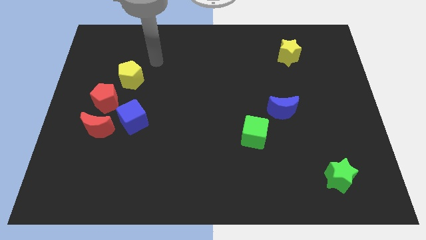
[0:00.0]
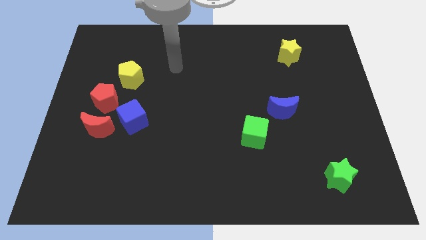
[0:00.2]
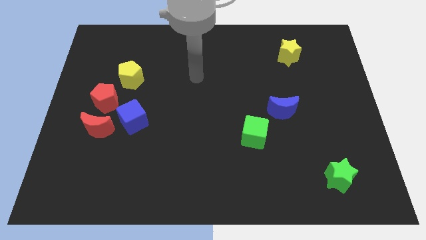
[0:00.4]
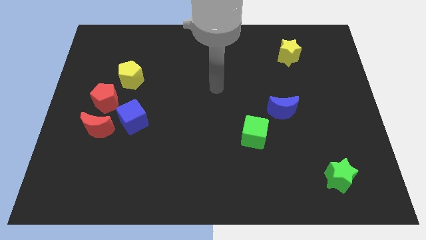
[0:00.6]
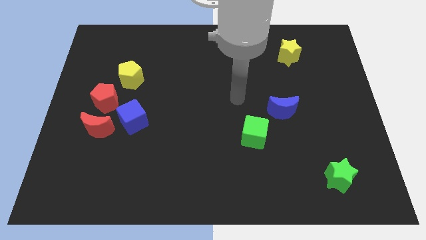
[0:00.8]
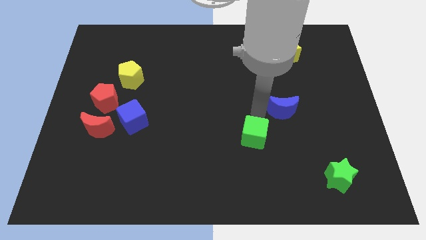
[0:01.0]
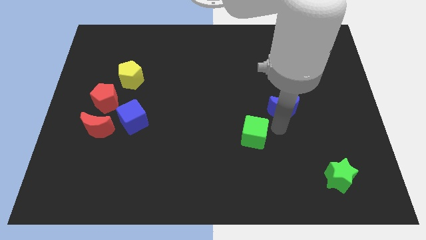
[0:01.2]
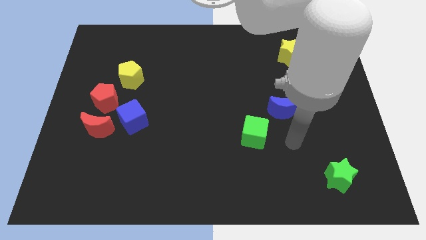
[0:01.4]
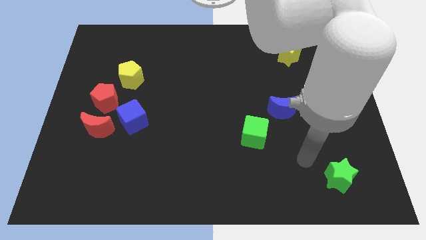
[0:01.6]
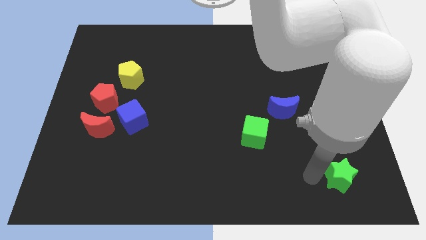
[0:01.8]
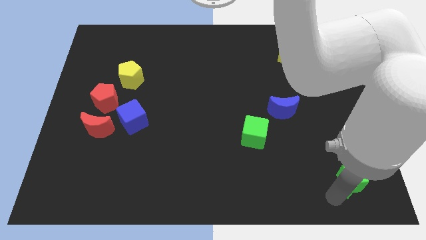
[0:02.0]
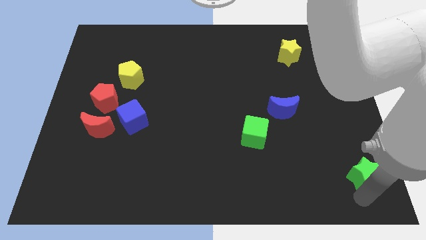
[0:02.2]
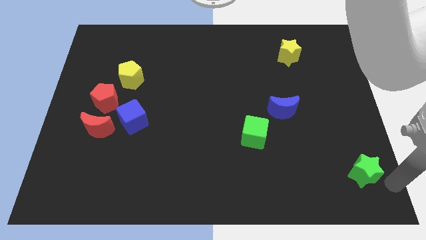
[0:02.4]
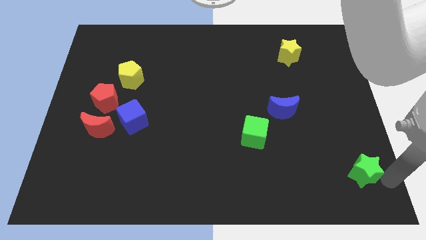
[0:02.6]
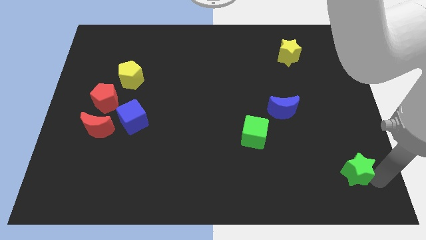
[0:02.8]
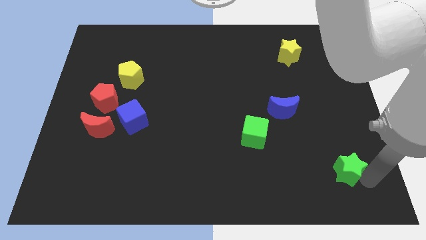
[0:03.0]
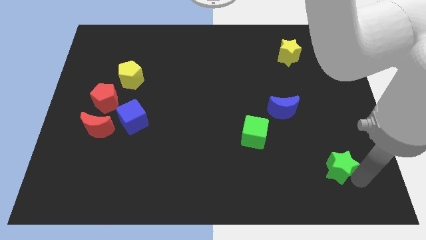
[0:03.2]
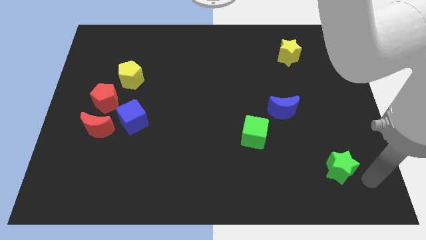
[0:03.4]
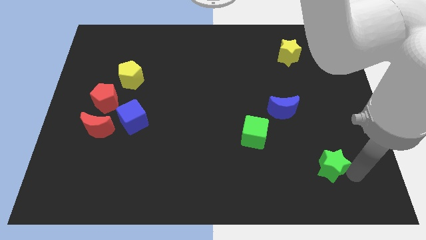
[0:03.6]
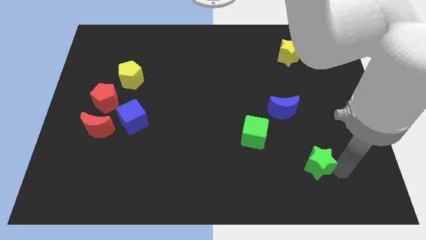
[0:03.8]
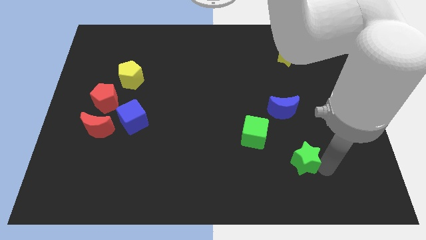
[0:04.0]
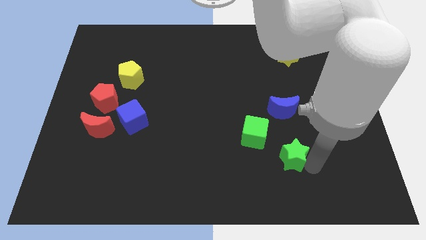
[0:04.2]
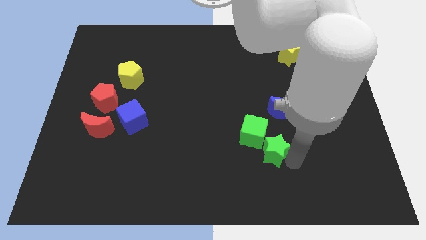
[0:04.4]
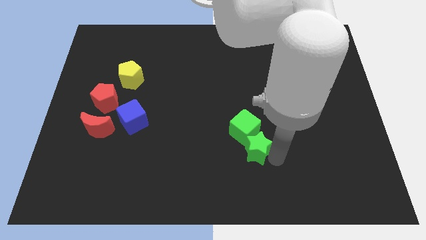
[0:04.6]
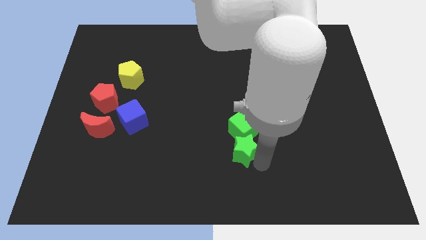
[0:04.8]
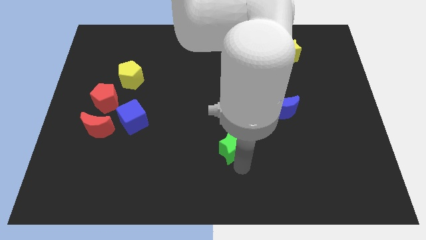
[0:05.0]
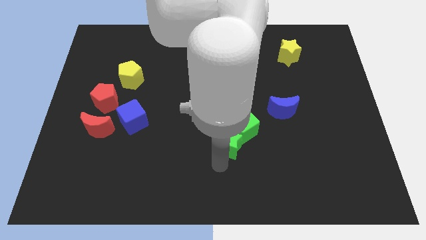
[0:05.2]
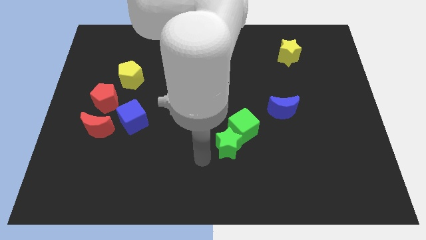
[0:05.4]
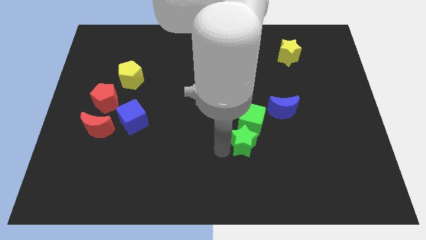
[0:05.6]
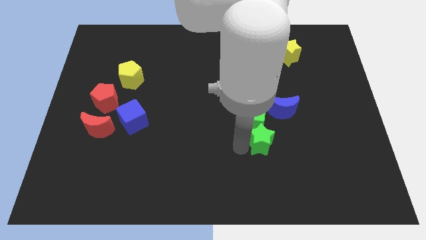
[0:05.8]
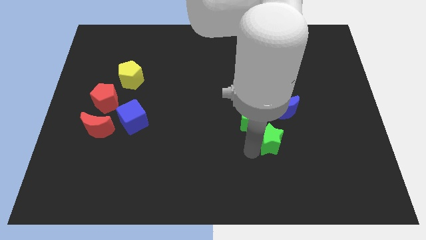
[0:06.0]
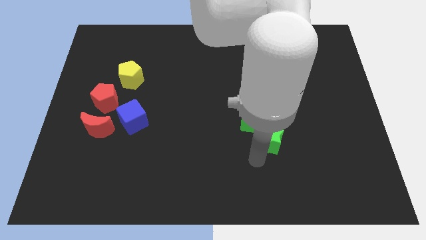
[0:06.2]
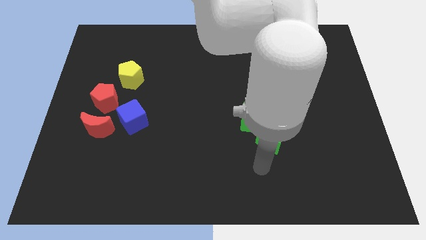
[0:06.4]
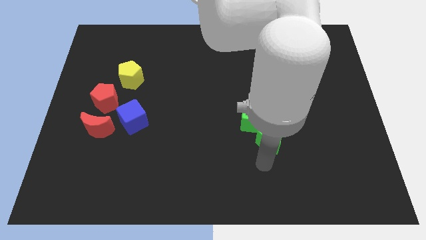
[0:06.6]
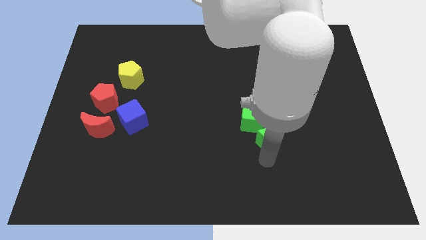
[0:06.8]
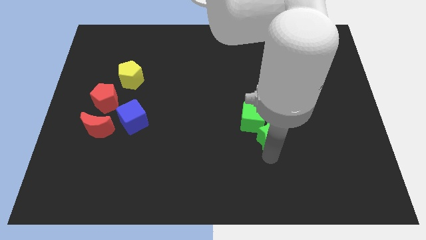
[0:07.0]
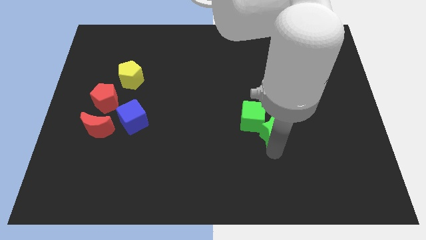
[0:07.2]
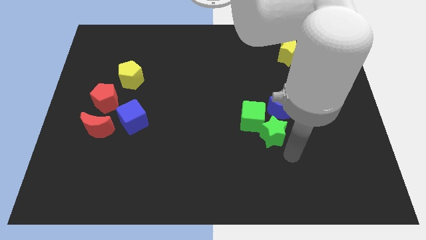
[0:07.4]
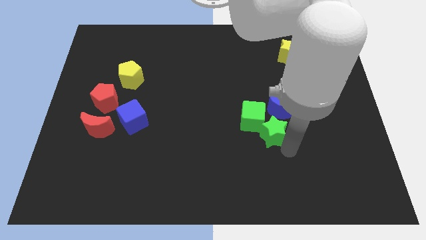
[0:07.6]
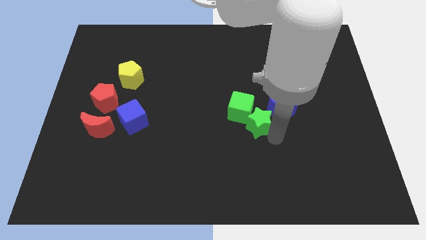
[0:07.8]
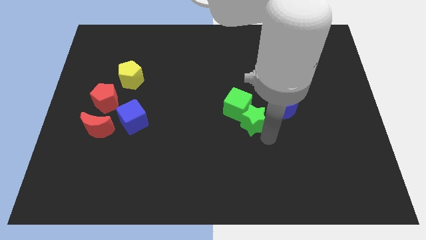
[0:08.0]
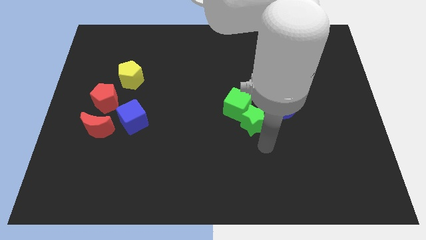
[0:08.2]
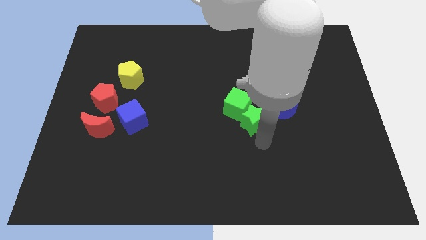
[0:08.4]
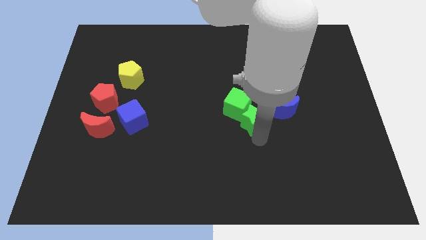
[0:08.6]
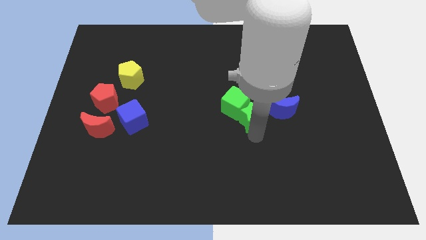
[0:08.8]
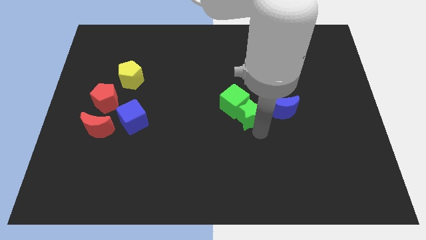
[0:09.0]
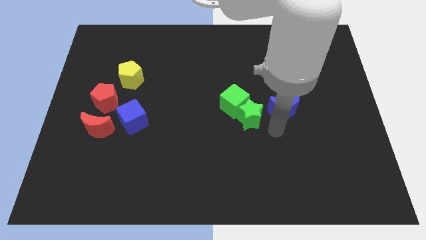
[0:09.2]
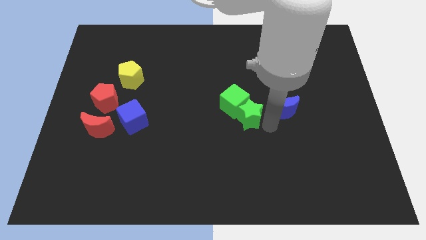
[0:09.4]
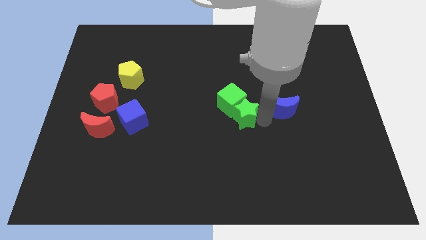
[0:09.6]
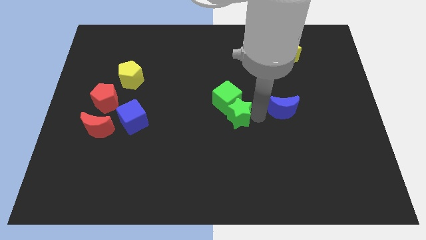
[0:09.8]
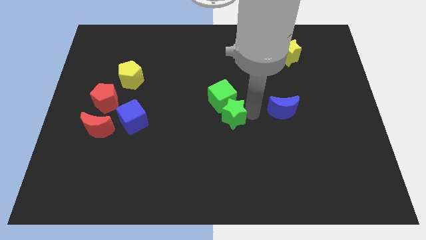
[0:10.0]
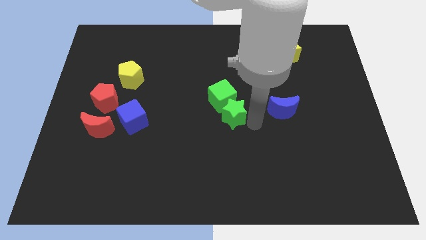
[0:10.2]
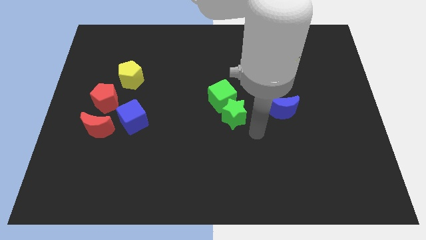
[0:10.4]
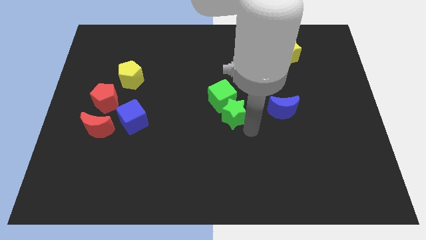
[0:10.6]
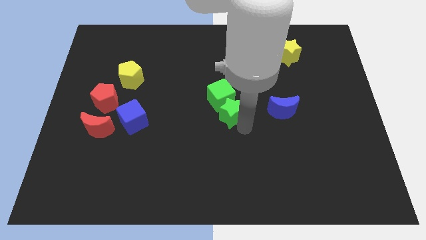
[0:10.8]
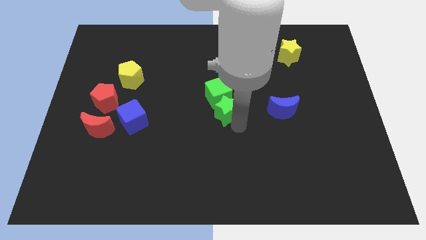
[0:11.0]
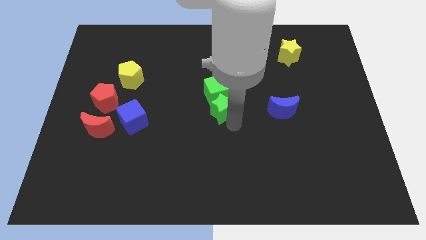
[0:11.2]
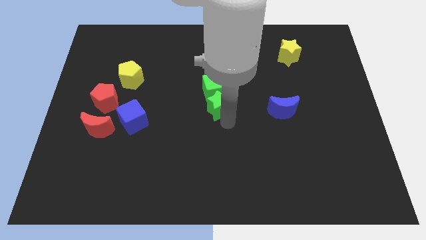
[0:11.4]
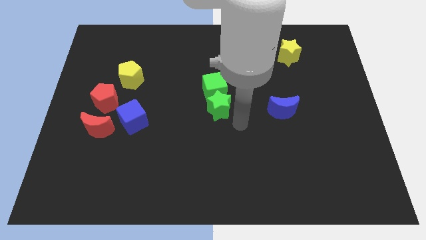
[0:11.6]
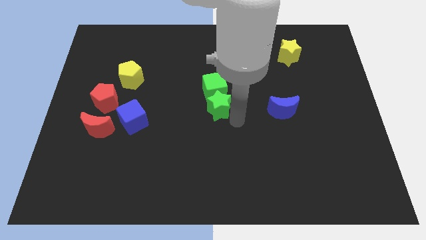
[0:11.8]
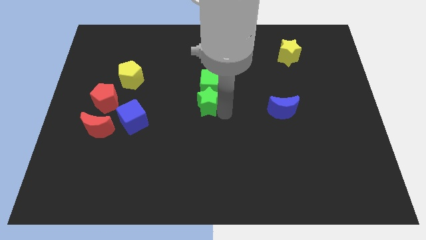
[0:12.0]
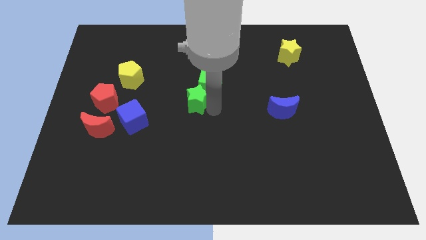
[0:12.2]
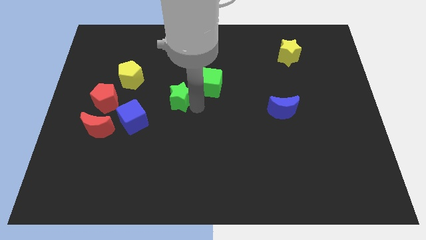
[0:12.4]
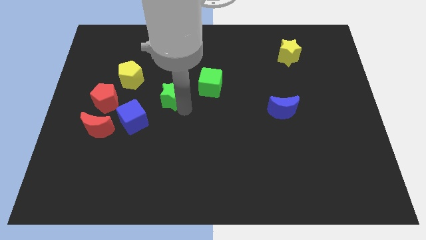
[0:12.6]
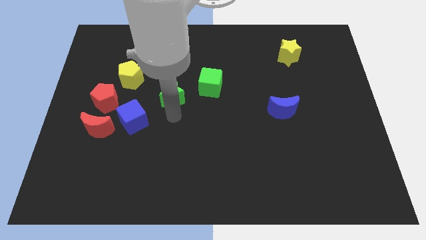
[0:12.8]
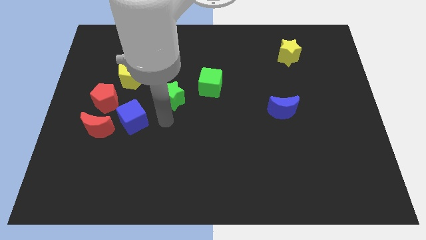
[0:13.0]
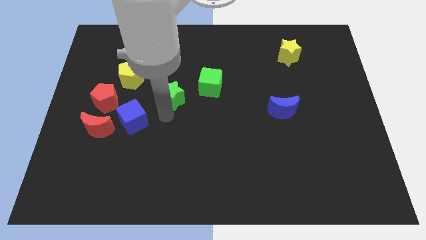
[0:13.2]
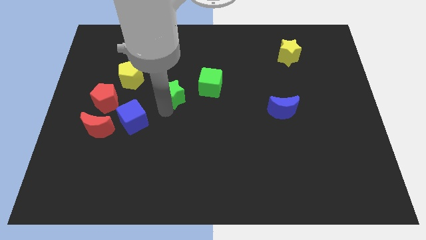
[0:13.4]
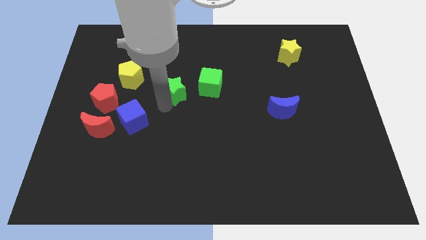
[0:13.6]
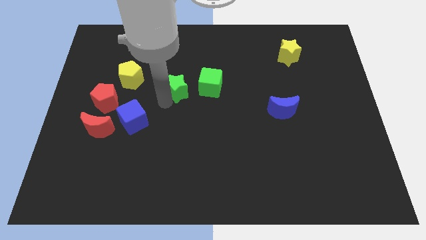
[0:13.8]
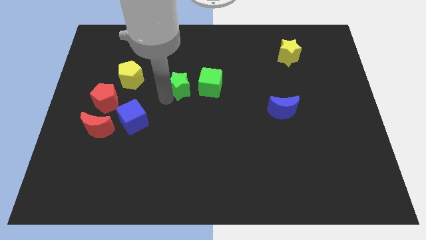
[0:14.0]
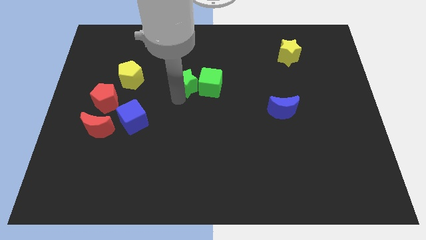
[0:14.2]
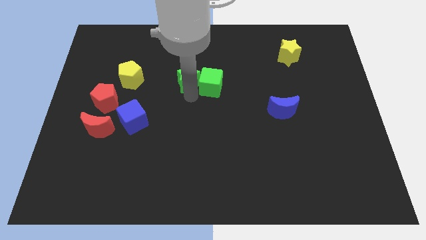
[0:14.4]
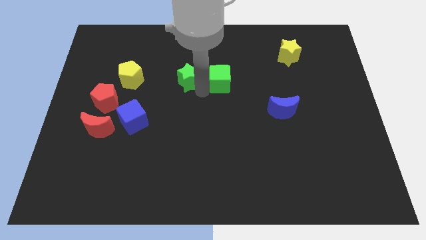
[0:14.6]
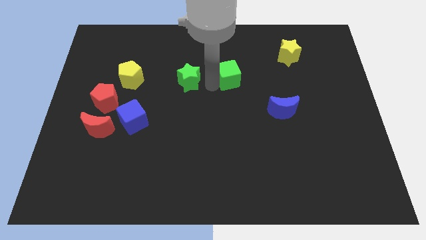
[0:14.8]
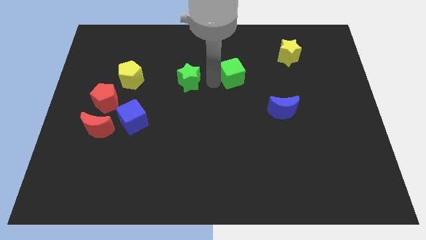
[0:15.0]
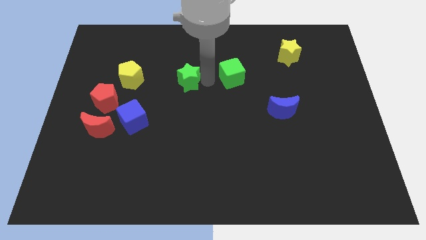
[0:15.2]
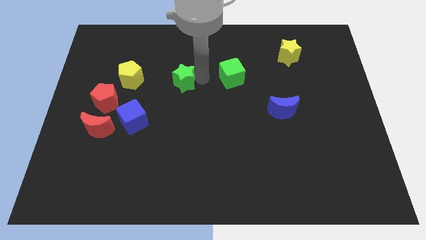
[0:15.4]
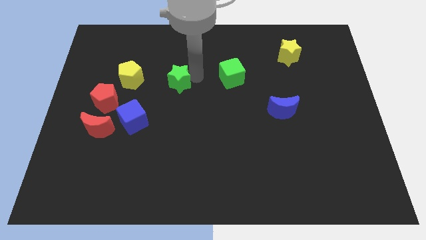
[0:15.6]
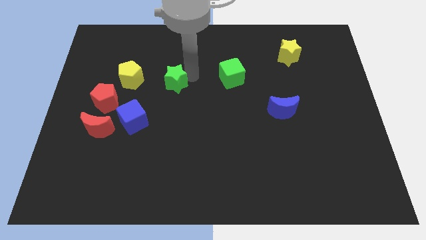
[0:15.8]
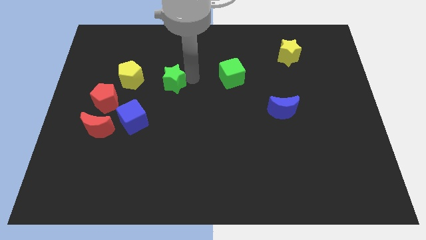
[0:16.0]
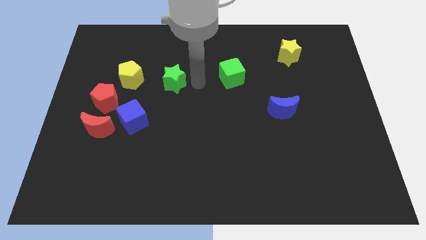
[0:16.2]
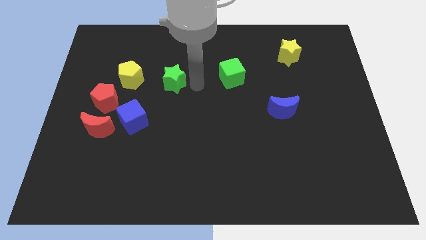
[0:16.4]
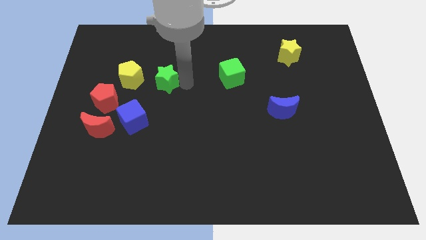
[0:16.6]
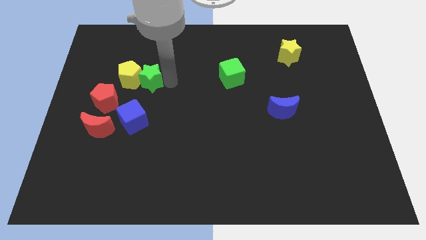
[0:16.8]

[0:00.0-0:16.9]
push the green star towards the yellow pentagon
